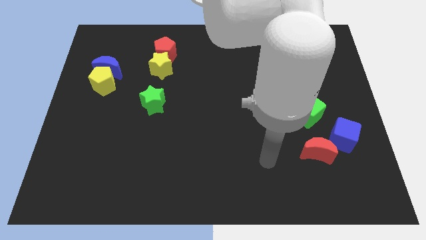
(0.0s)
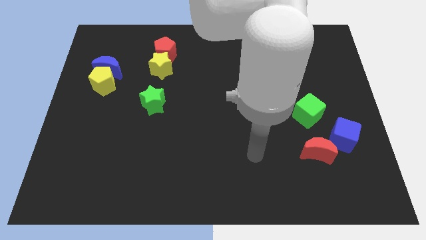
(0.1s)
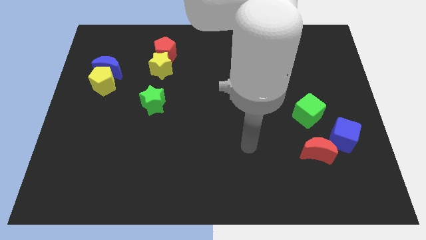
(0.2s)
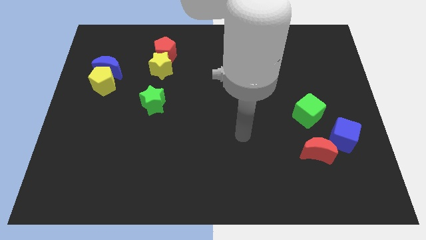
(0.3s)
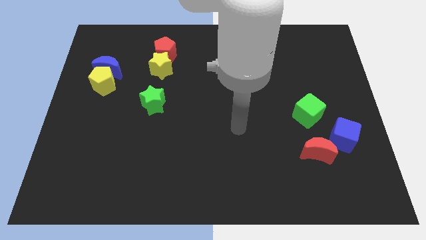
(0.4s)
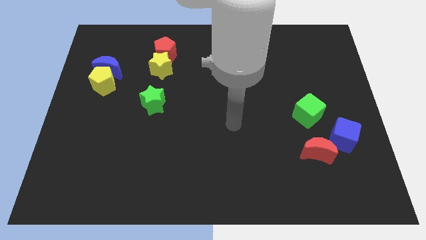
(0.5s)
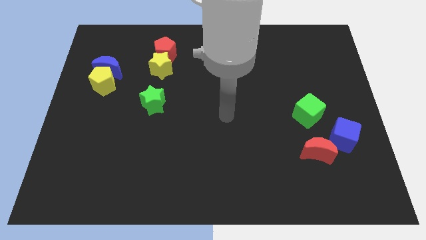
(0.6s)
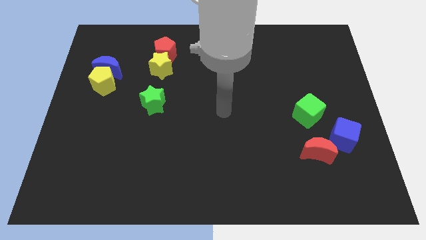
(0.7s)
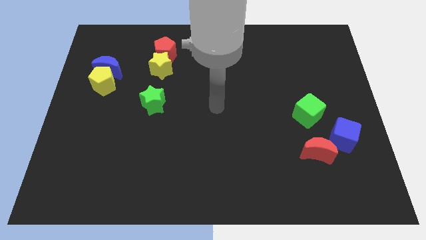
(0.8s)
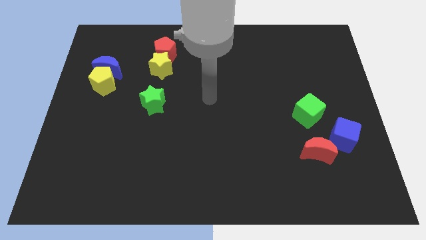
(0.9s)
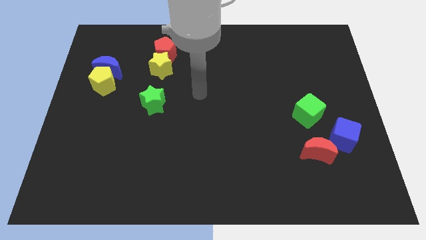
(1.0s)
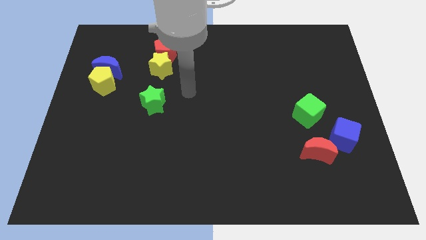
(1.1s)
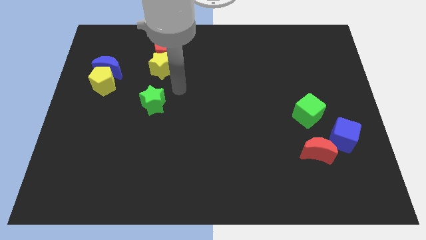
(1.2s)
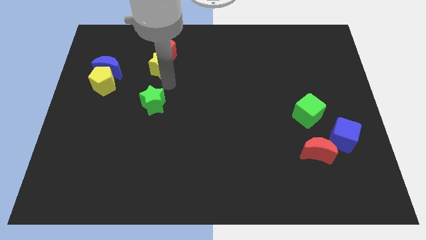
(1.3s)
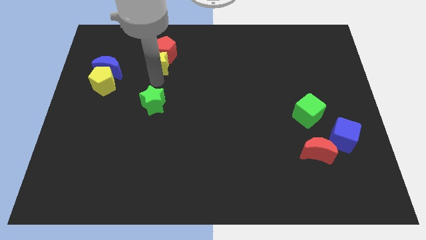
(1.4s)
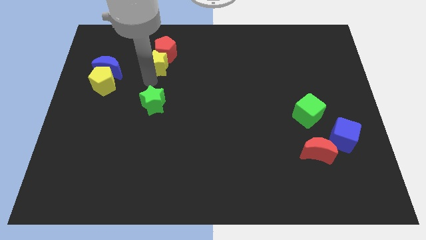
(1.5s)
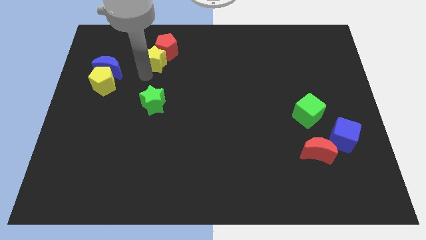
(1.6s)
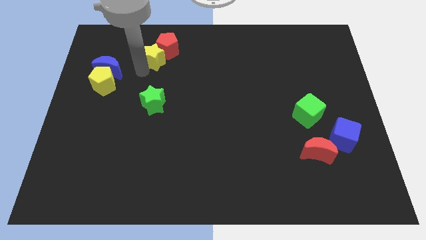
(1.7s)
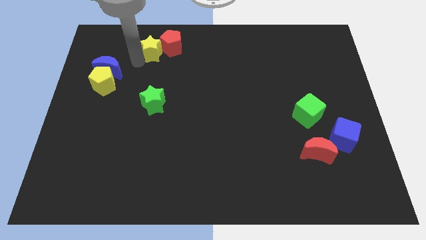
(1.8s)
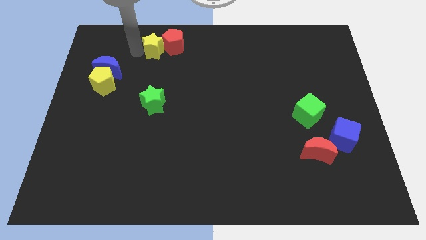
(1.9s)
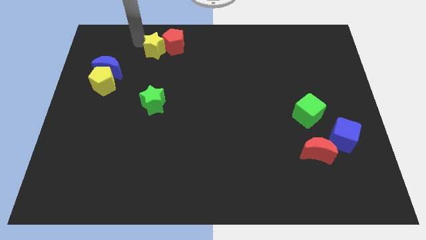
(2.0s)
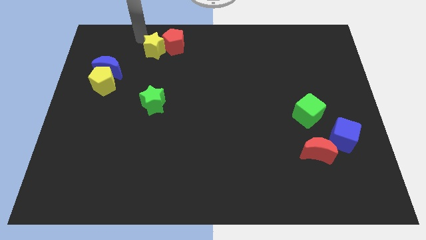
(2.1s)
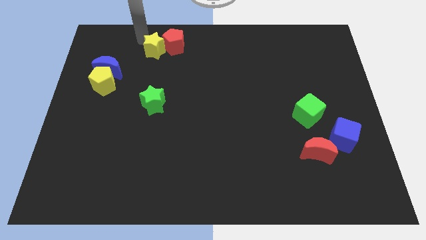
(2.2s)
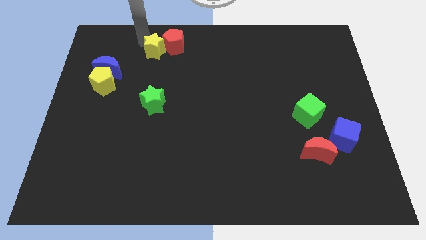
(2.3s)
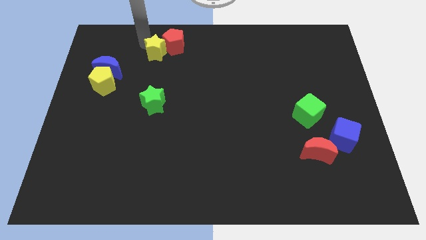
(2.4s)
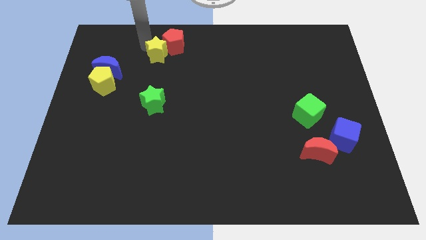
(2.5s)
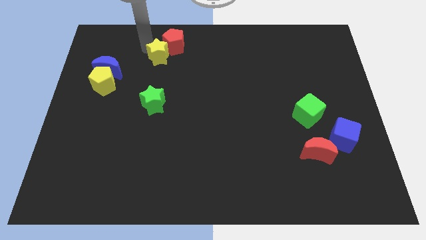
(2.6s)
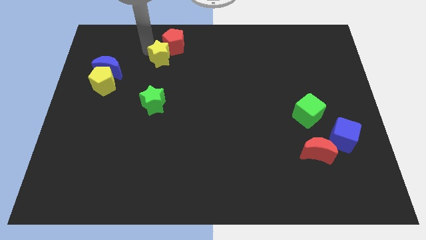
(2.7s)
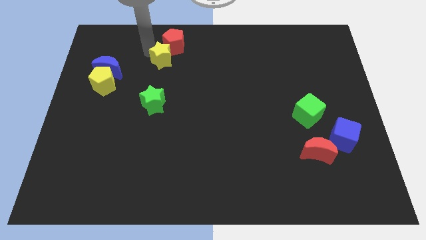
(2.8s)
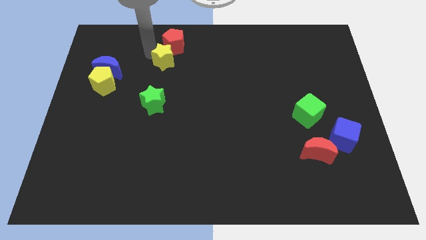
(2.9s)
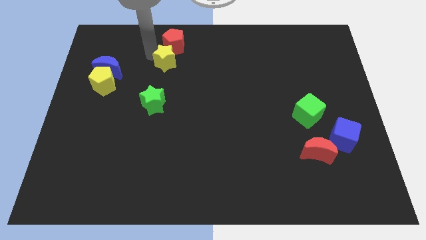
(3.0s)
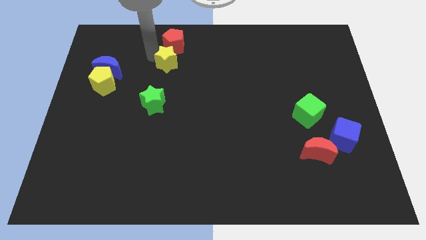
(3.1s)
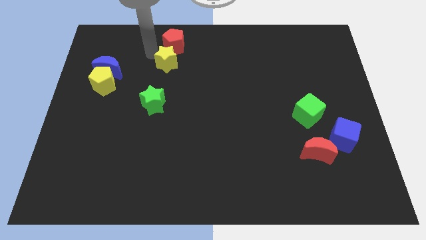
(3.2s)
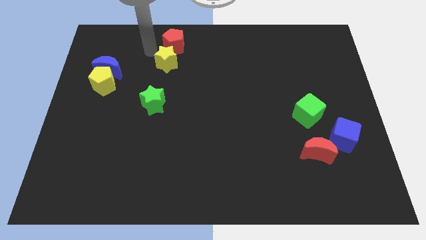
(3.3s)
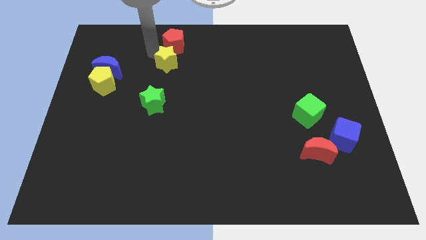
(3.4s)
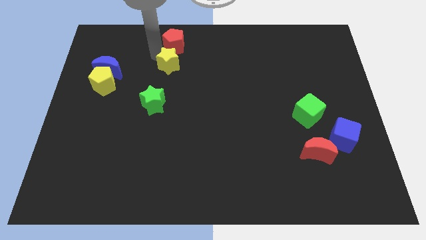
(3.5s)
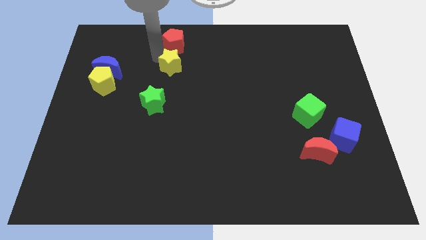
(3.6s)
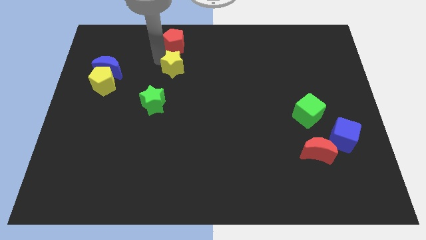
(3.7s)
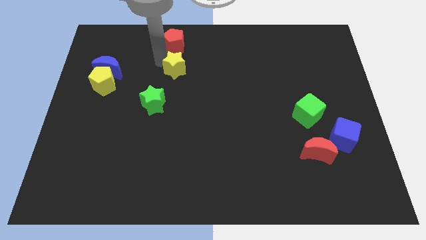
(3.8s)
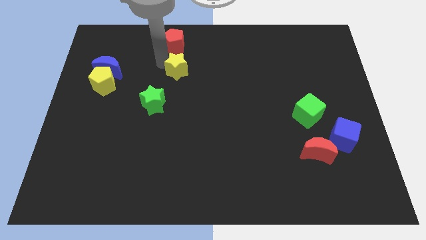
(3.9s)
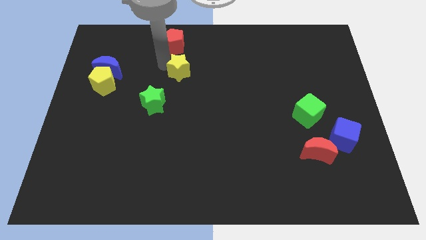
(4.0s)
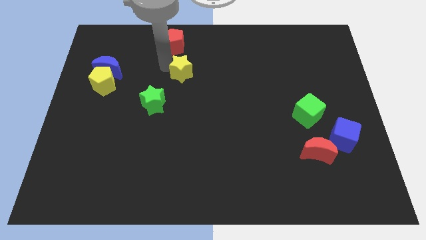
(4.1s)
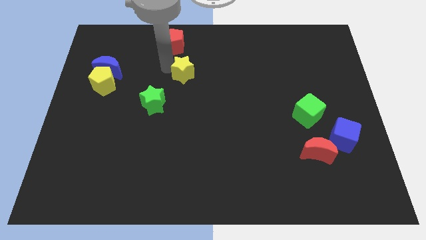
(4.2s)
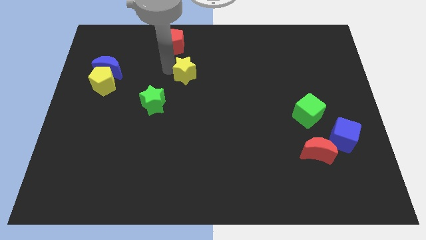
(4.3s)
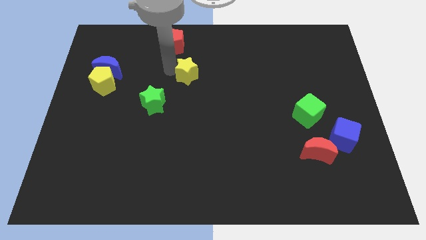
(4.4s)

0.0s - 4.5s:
push the yellow star to the right a bit

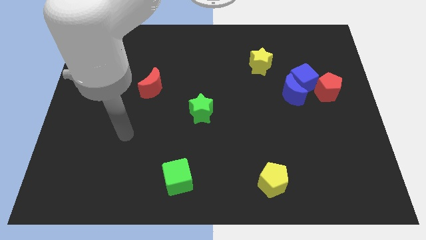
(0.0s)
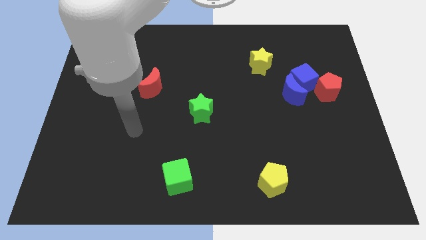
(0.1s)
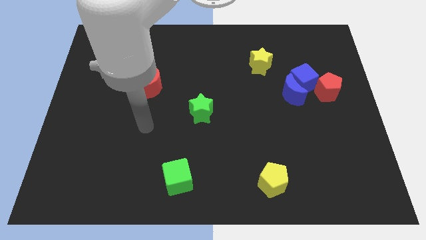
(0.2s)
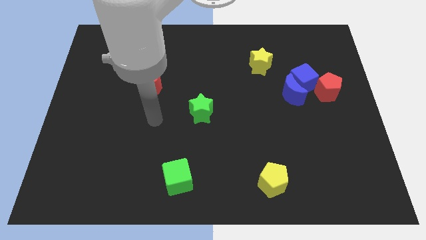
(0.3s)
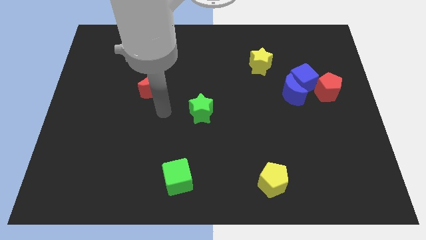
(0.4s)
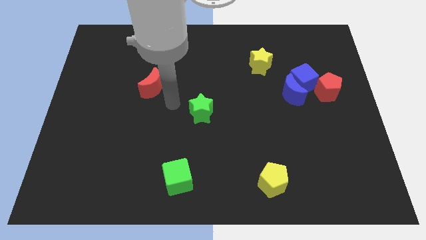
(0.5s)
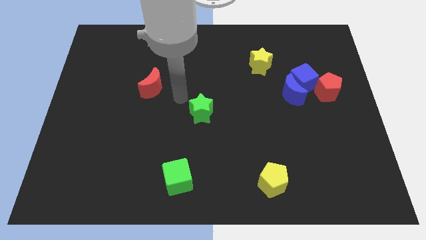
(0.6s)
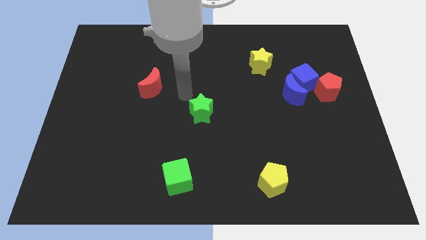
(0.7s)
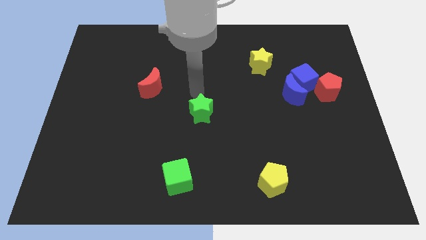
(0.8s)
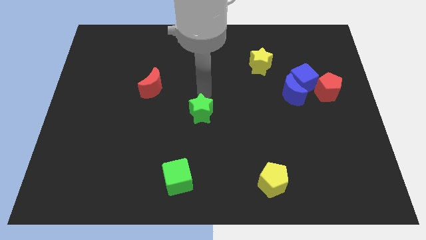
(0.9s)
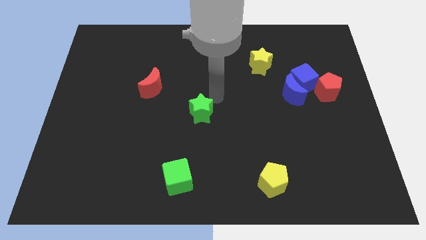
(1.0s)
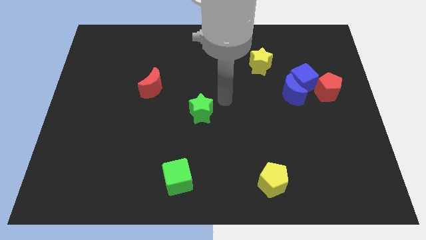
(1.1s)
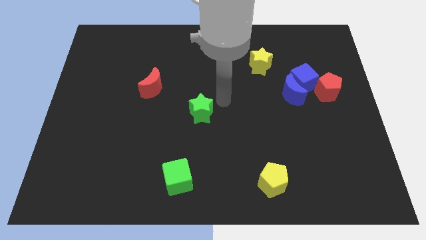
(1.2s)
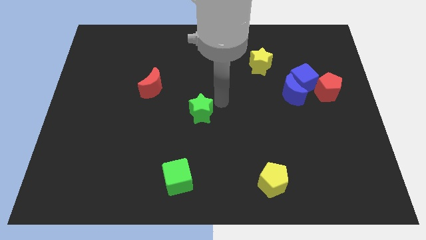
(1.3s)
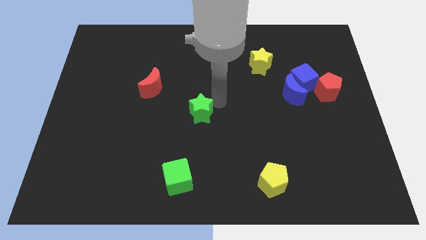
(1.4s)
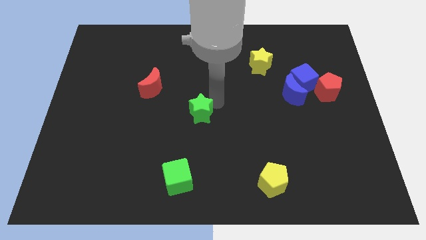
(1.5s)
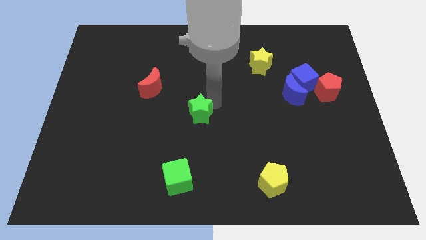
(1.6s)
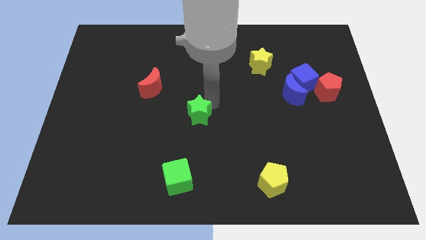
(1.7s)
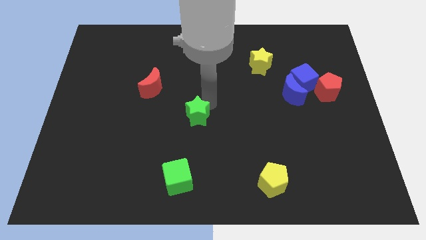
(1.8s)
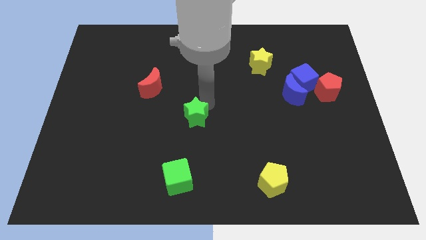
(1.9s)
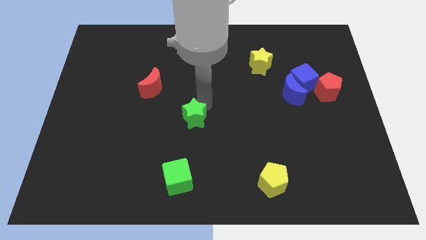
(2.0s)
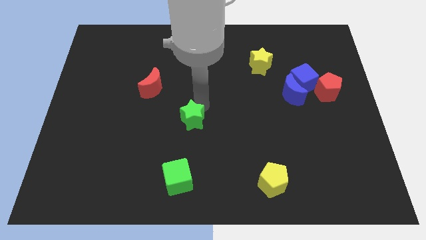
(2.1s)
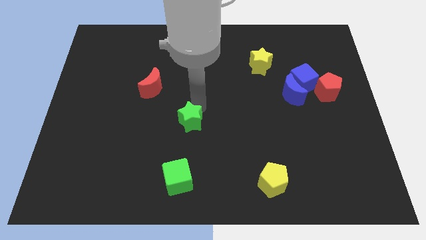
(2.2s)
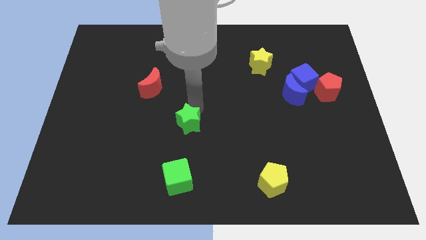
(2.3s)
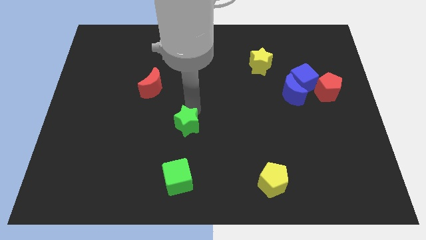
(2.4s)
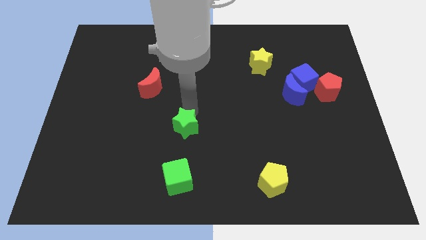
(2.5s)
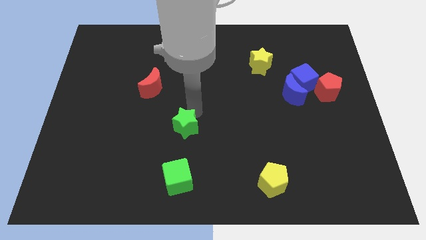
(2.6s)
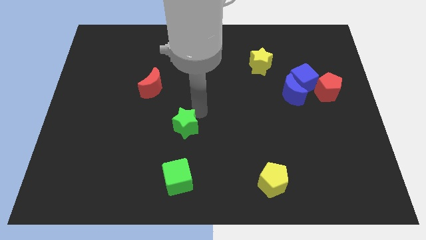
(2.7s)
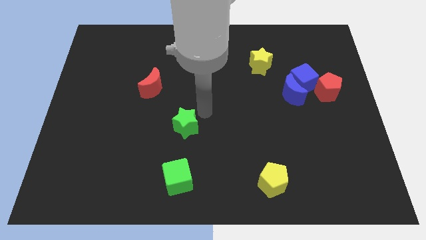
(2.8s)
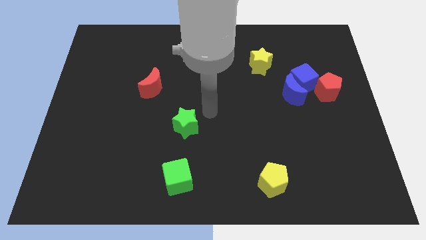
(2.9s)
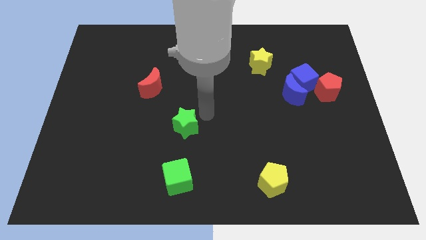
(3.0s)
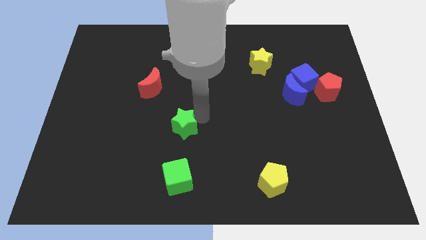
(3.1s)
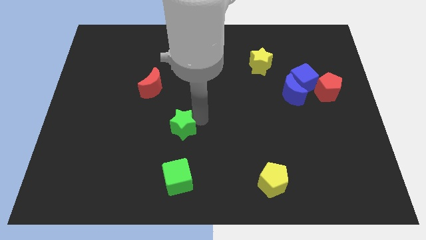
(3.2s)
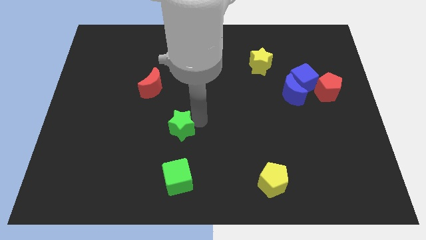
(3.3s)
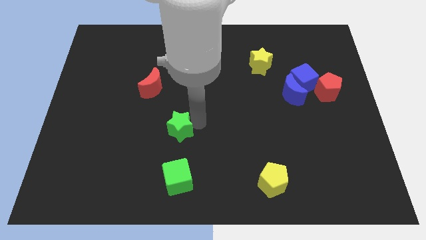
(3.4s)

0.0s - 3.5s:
push the green star a bit diagonally down and to the left
